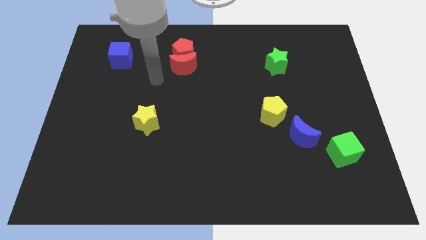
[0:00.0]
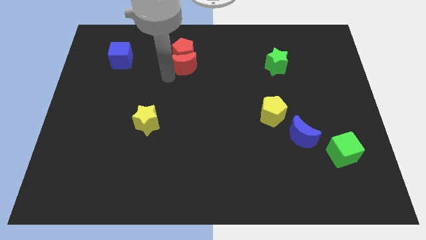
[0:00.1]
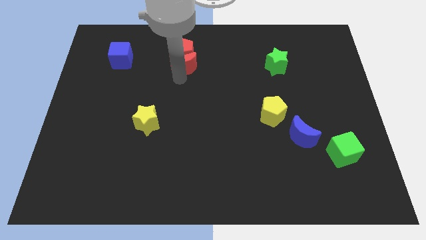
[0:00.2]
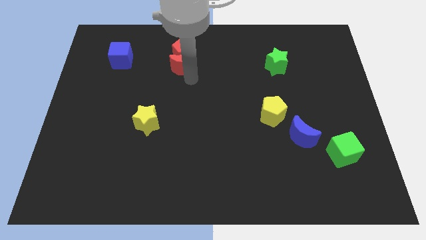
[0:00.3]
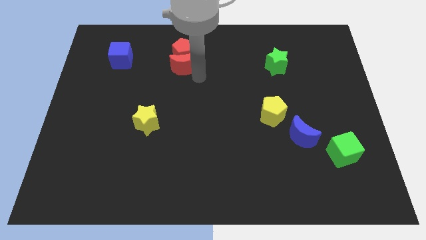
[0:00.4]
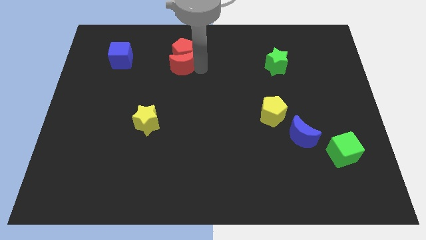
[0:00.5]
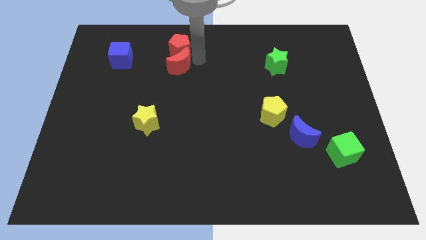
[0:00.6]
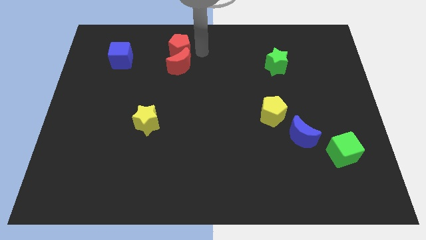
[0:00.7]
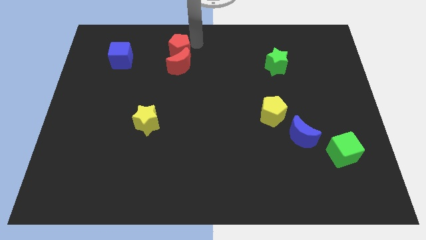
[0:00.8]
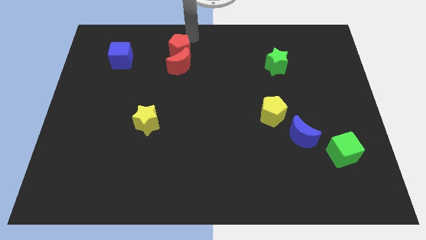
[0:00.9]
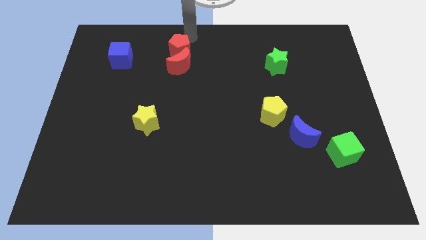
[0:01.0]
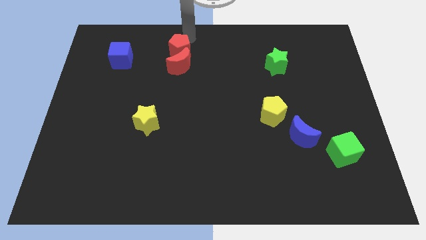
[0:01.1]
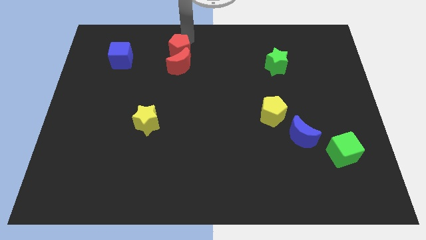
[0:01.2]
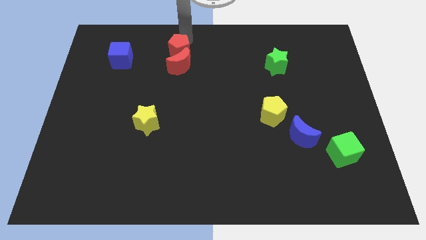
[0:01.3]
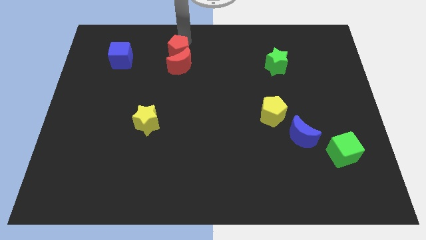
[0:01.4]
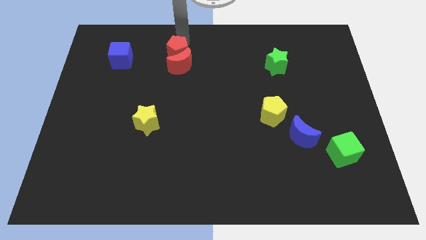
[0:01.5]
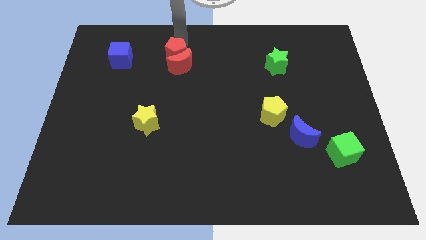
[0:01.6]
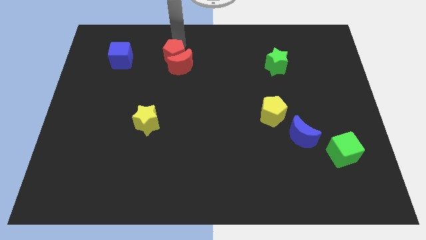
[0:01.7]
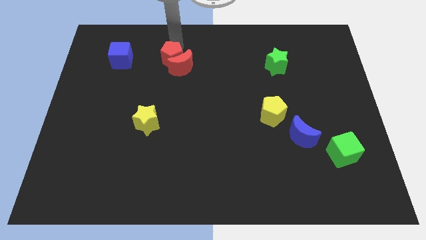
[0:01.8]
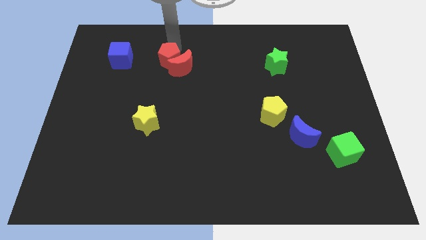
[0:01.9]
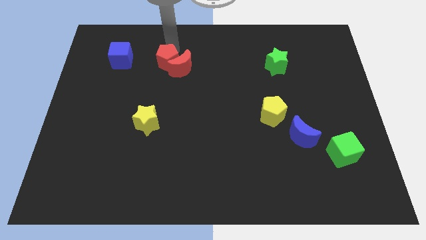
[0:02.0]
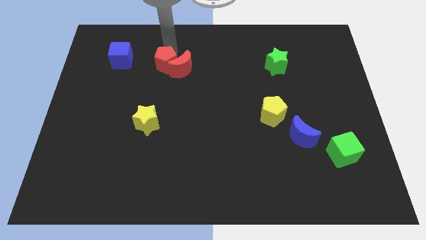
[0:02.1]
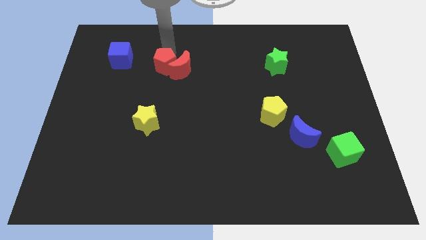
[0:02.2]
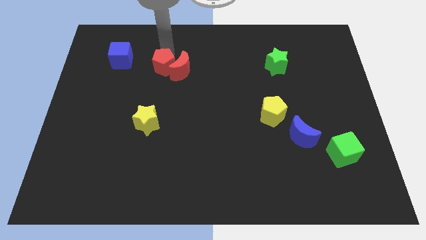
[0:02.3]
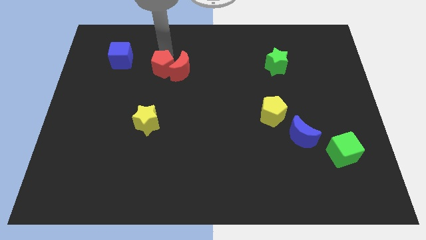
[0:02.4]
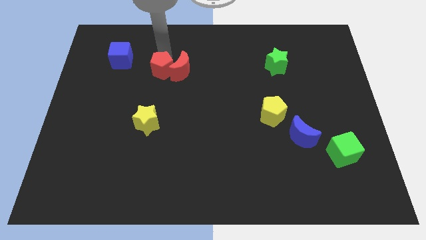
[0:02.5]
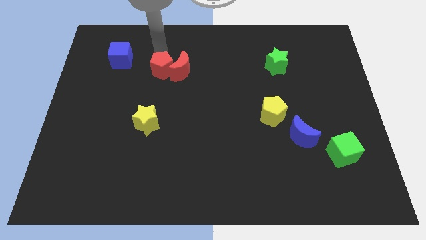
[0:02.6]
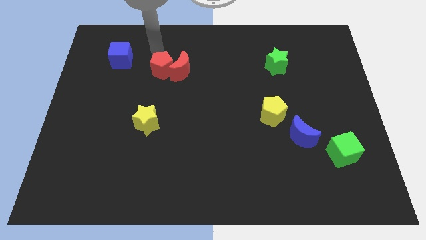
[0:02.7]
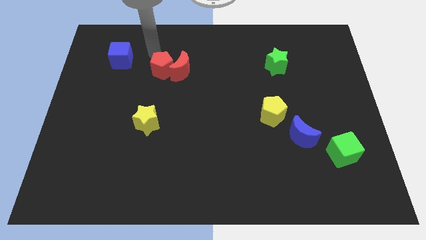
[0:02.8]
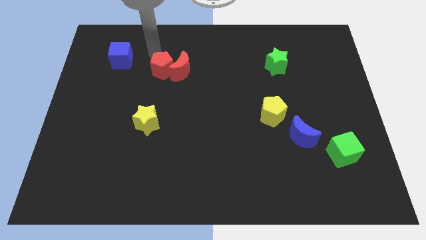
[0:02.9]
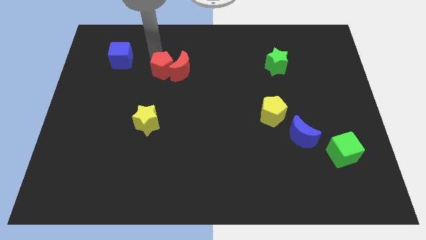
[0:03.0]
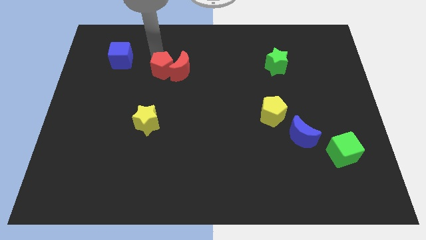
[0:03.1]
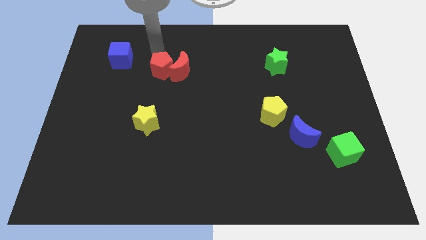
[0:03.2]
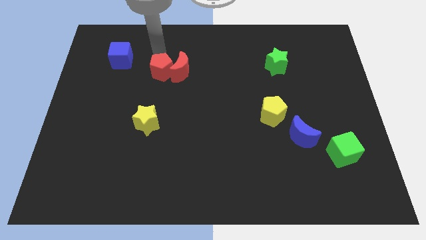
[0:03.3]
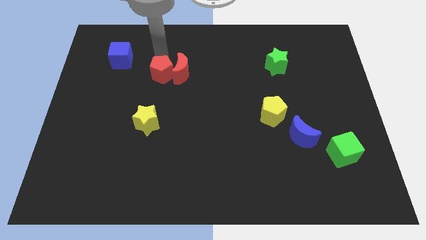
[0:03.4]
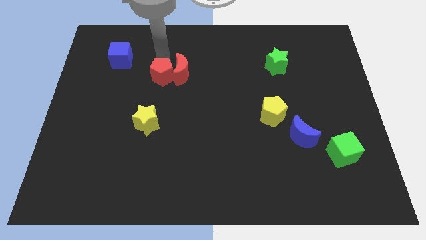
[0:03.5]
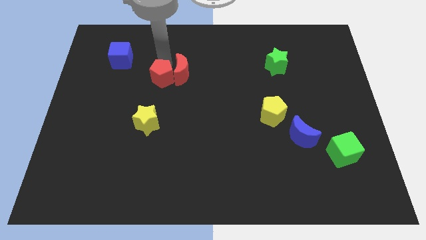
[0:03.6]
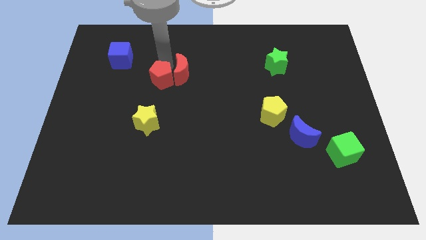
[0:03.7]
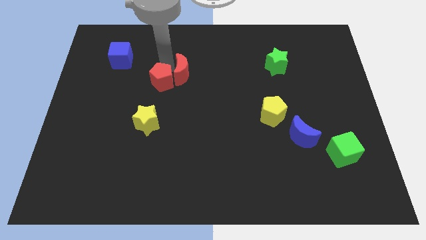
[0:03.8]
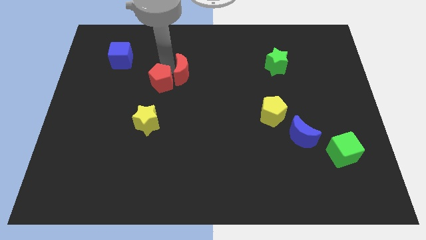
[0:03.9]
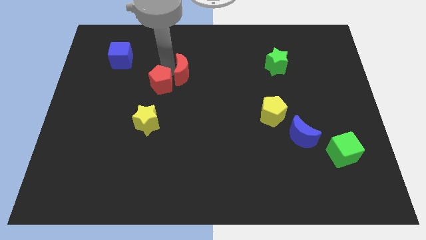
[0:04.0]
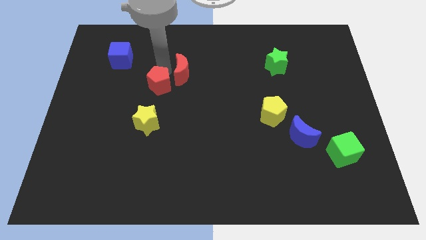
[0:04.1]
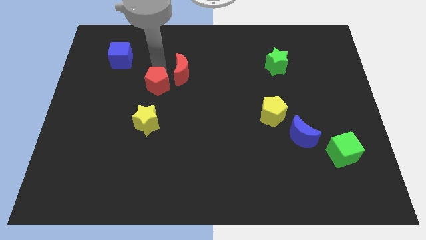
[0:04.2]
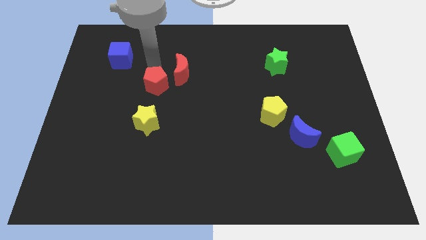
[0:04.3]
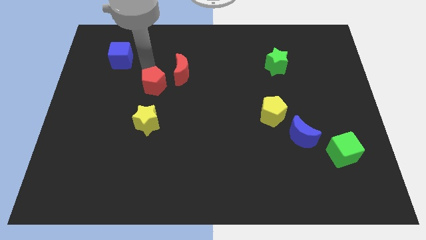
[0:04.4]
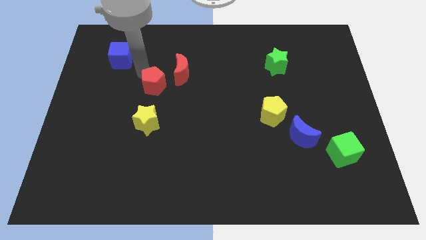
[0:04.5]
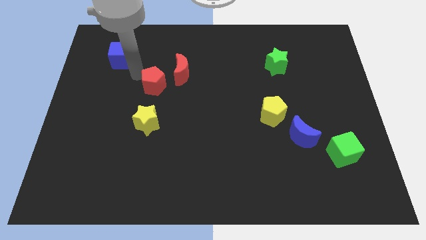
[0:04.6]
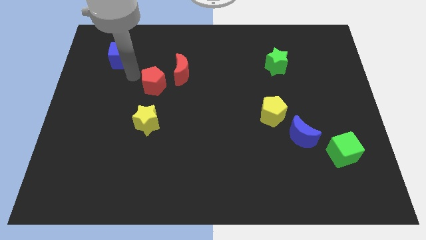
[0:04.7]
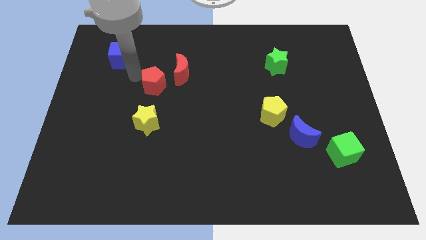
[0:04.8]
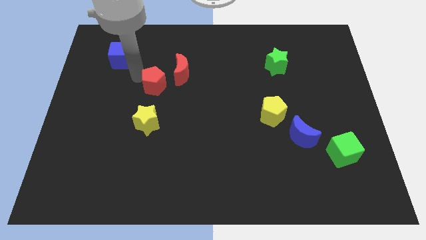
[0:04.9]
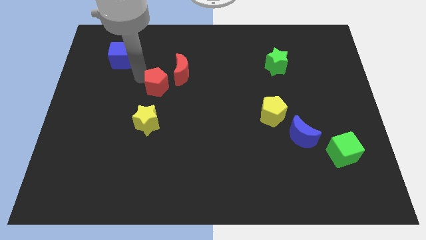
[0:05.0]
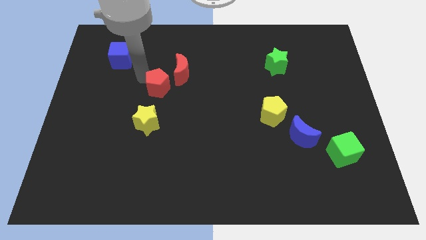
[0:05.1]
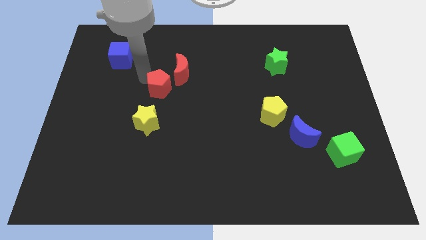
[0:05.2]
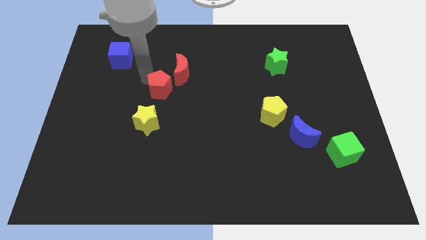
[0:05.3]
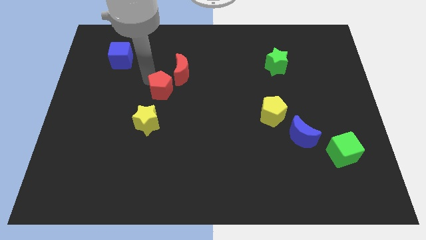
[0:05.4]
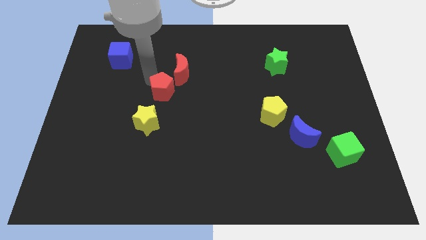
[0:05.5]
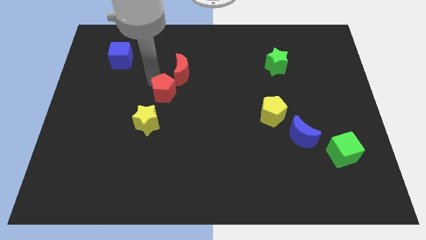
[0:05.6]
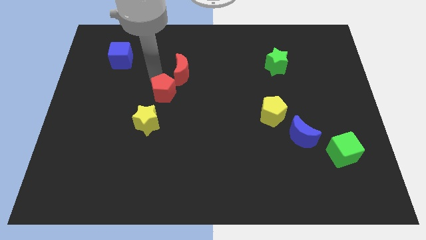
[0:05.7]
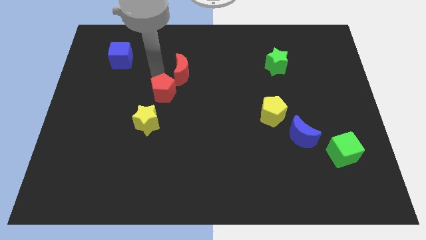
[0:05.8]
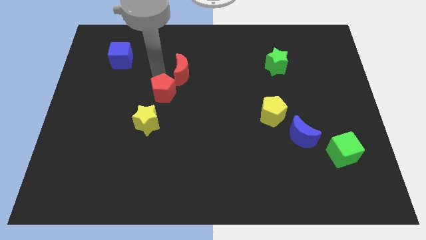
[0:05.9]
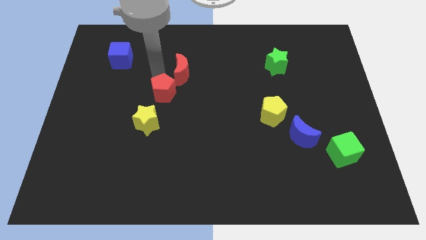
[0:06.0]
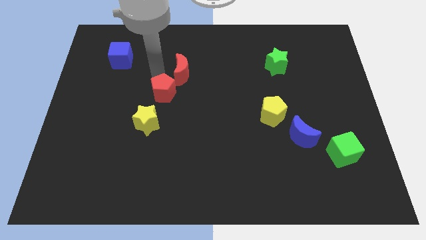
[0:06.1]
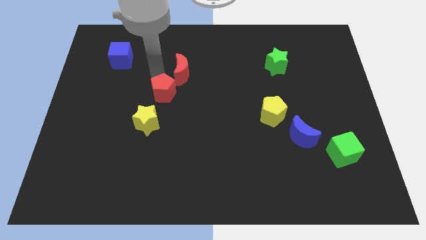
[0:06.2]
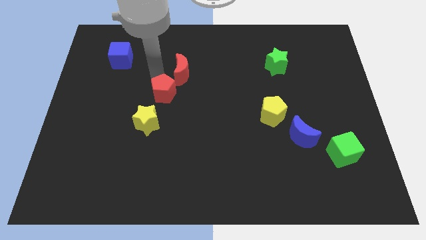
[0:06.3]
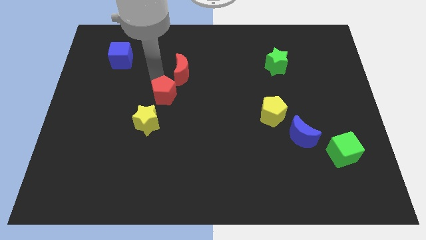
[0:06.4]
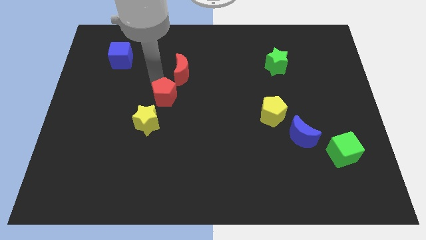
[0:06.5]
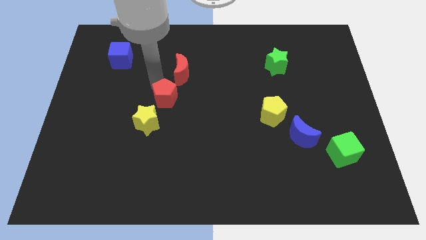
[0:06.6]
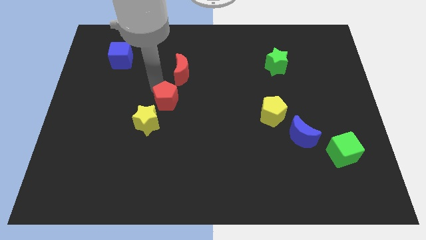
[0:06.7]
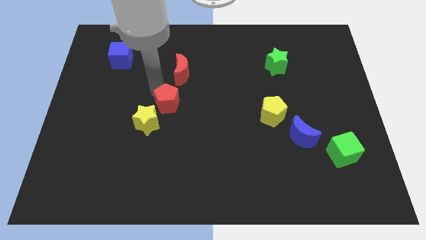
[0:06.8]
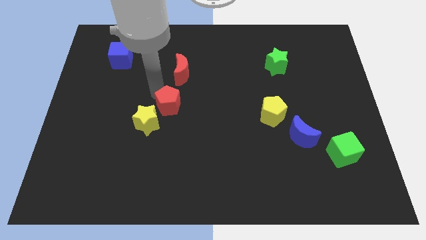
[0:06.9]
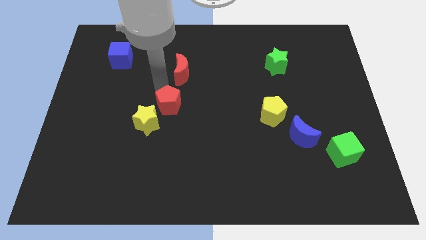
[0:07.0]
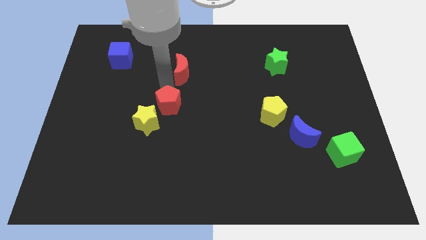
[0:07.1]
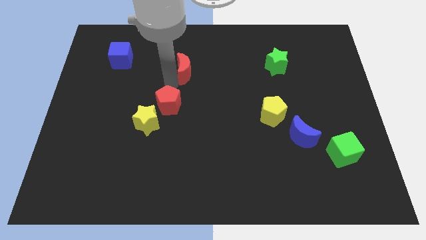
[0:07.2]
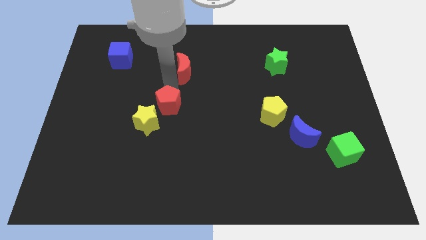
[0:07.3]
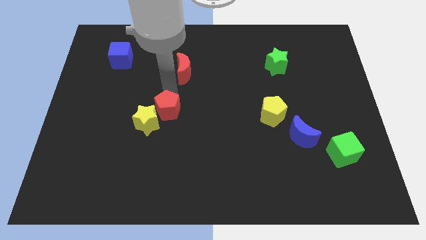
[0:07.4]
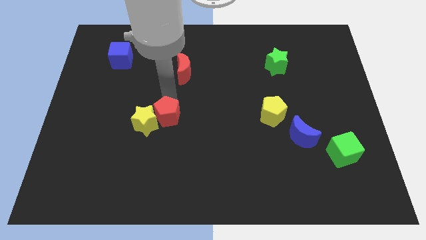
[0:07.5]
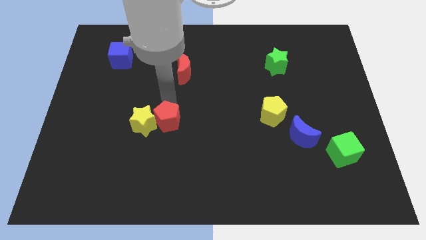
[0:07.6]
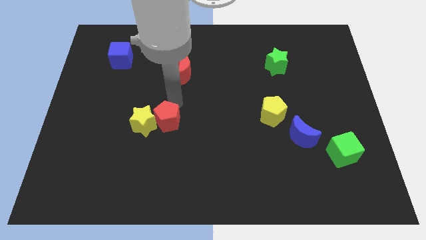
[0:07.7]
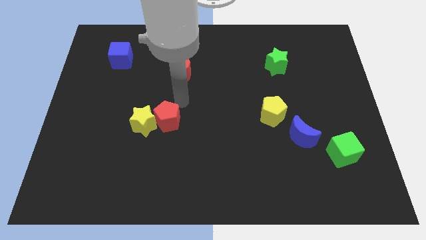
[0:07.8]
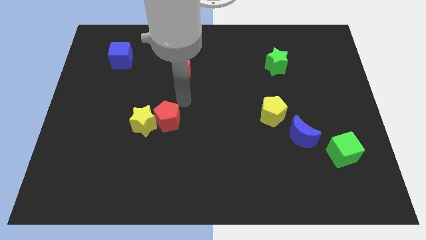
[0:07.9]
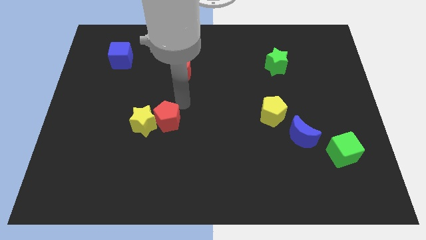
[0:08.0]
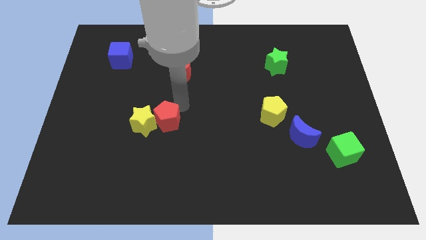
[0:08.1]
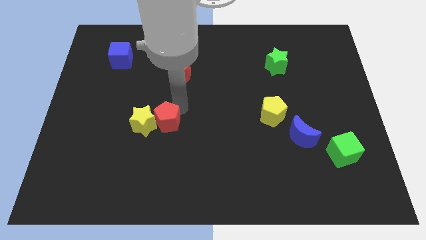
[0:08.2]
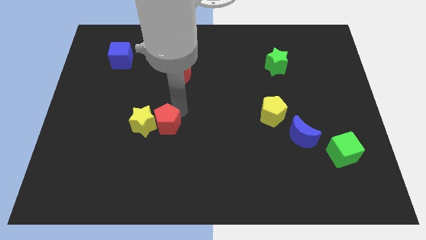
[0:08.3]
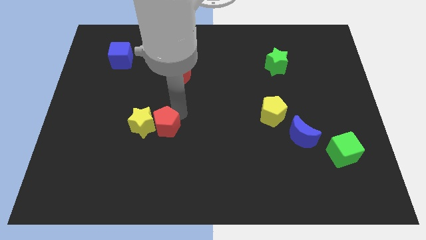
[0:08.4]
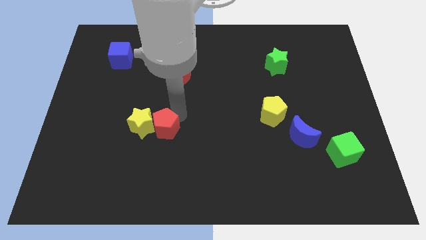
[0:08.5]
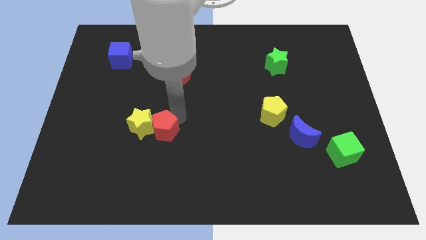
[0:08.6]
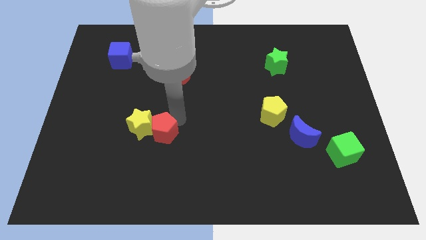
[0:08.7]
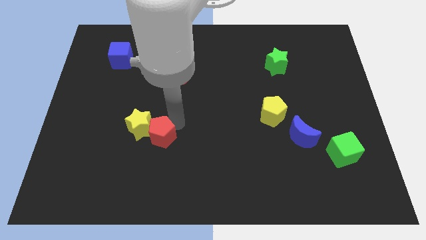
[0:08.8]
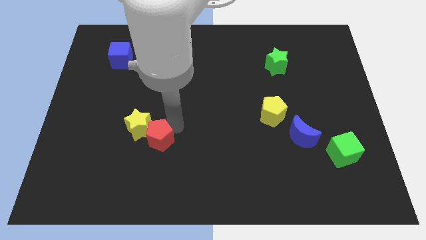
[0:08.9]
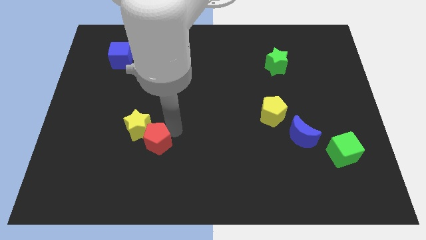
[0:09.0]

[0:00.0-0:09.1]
put the red pentagon to the bottom side of the yellow star
